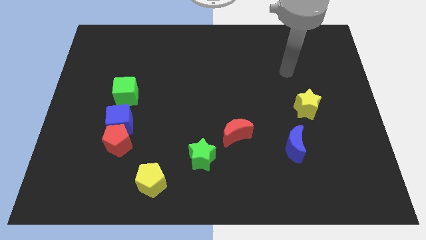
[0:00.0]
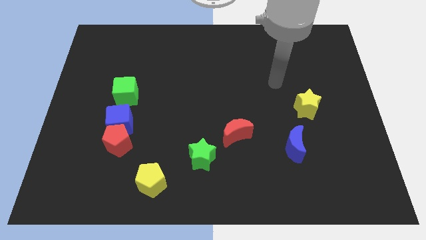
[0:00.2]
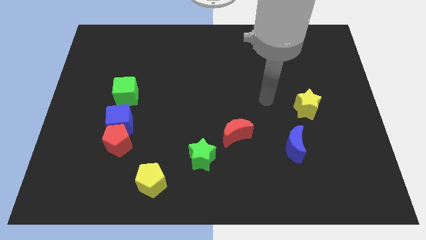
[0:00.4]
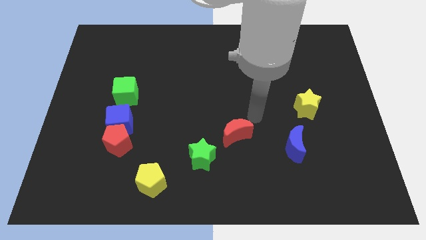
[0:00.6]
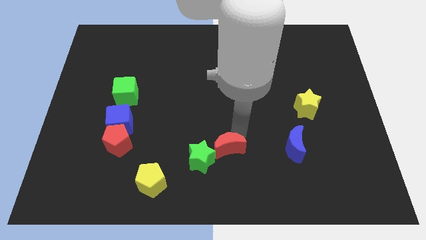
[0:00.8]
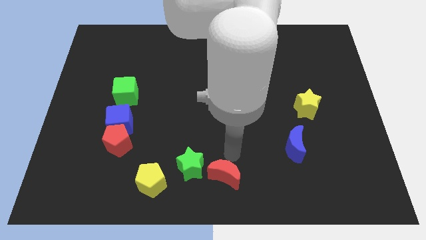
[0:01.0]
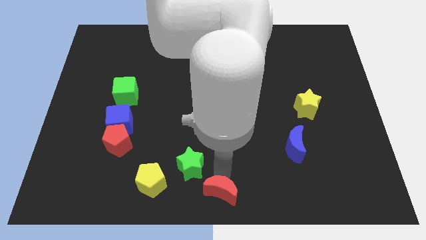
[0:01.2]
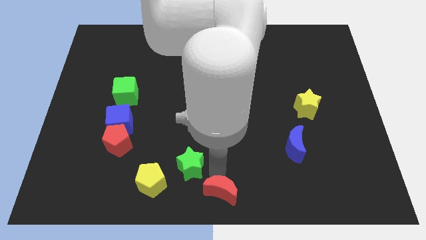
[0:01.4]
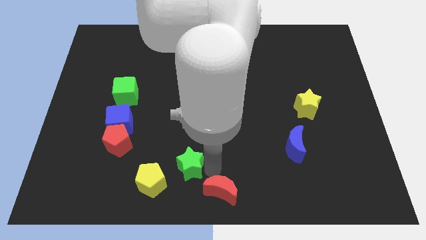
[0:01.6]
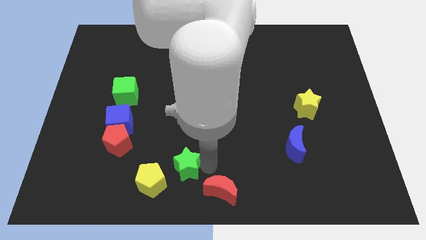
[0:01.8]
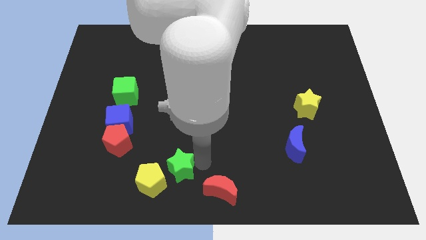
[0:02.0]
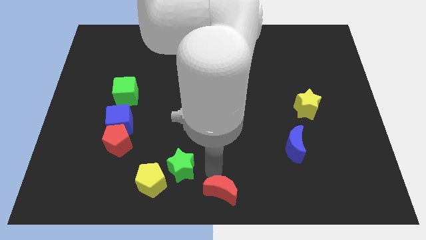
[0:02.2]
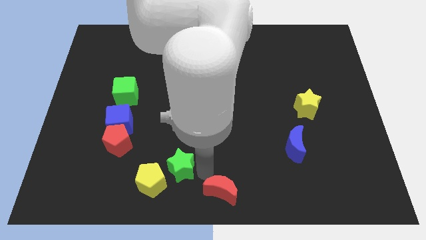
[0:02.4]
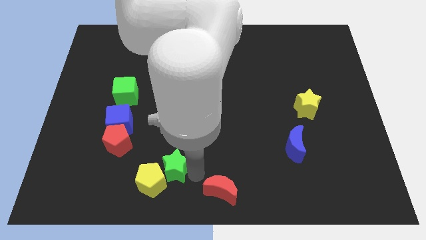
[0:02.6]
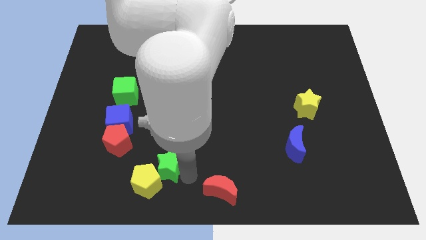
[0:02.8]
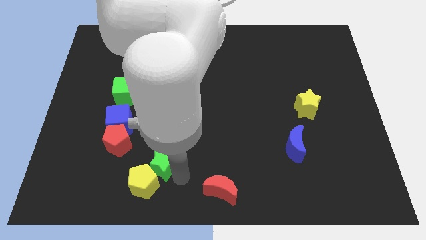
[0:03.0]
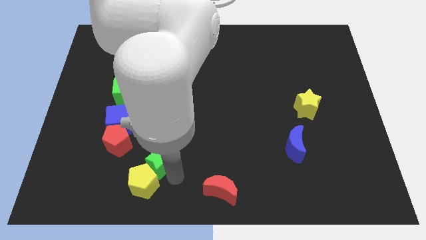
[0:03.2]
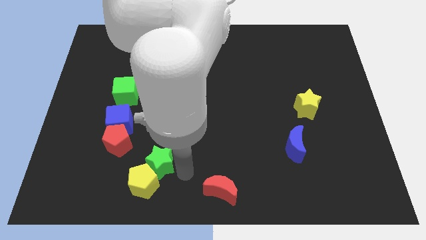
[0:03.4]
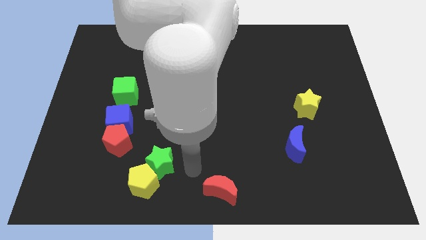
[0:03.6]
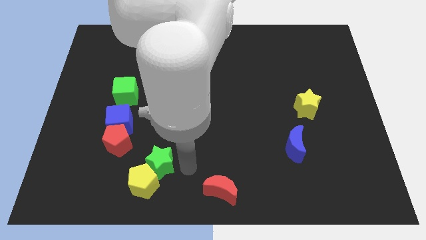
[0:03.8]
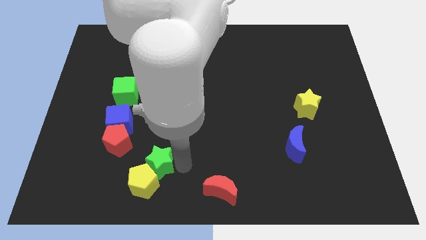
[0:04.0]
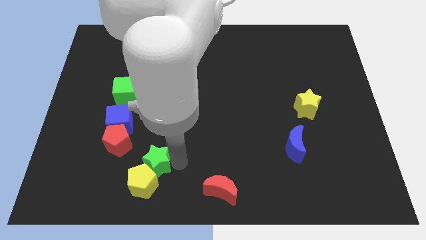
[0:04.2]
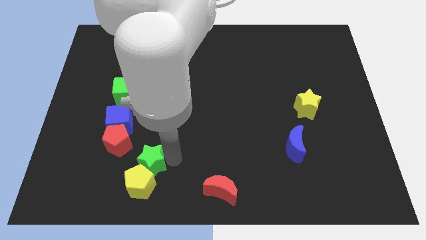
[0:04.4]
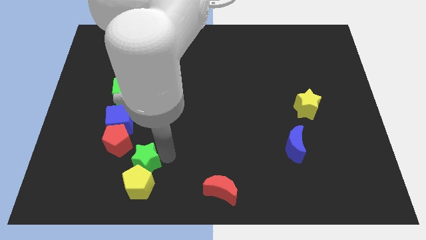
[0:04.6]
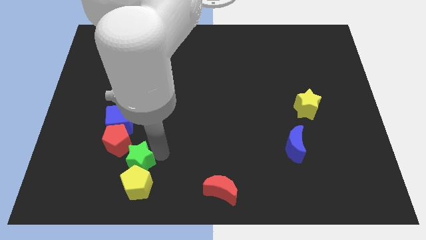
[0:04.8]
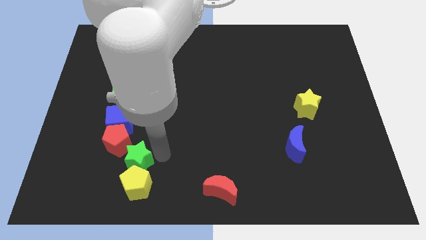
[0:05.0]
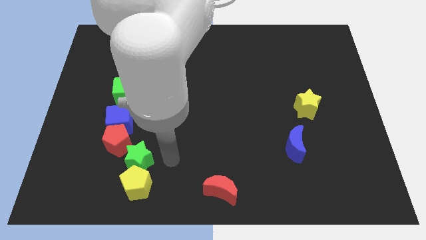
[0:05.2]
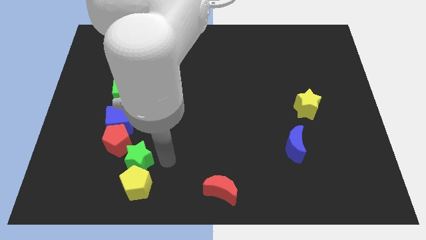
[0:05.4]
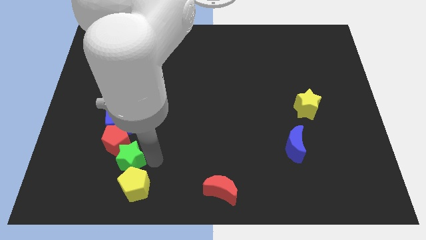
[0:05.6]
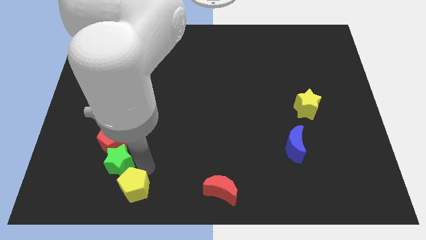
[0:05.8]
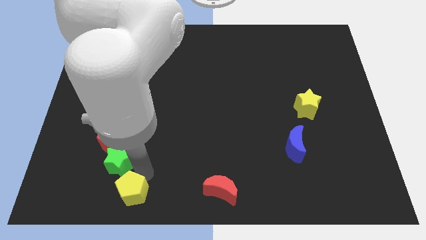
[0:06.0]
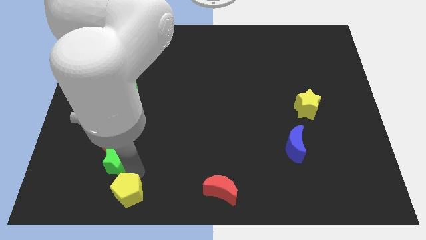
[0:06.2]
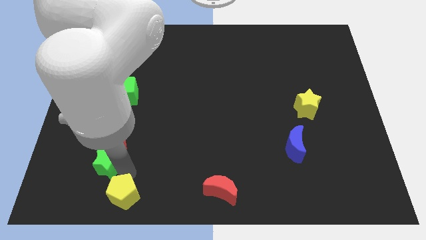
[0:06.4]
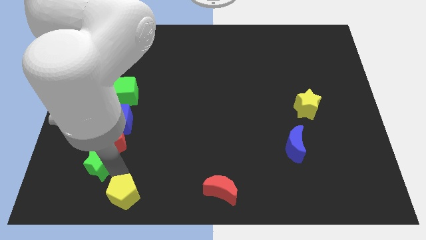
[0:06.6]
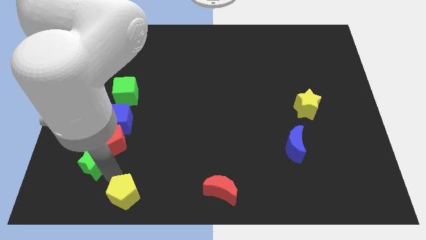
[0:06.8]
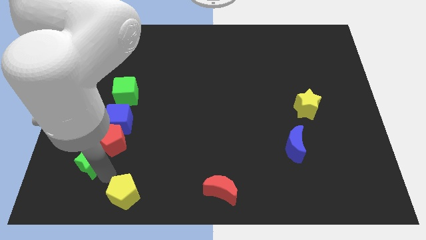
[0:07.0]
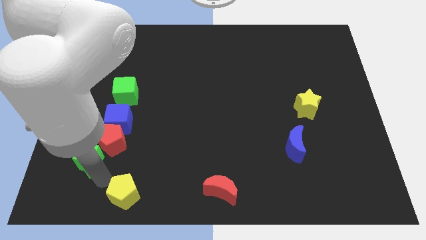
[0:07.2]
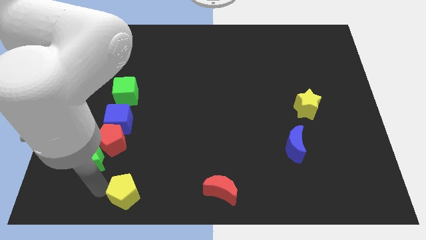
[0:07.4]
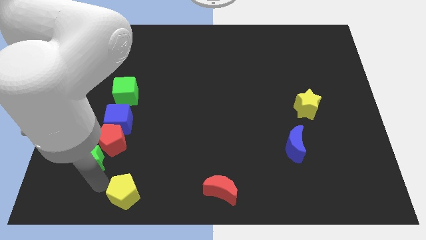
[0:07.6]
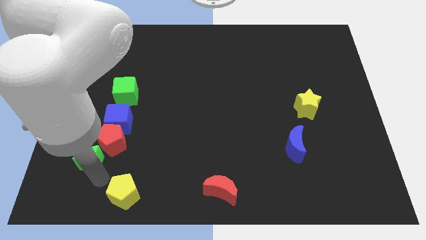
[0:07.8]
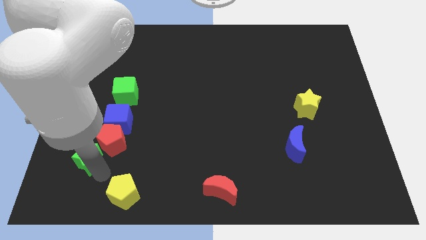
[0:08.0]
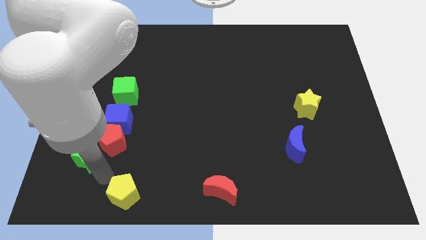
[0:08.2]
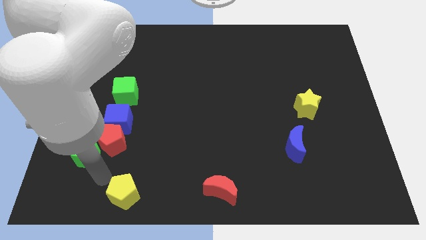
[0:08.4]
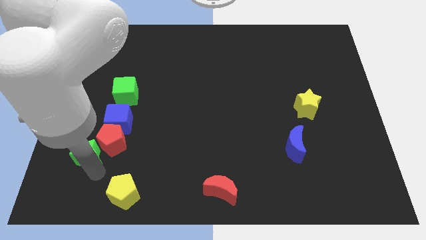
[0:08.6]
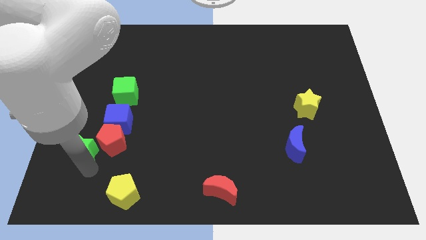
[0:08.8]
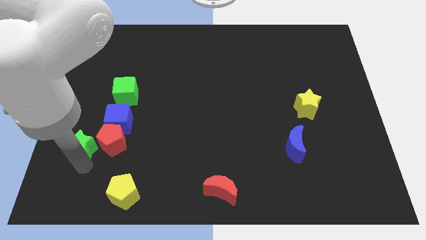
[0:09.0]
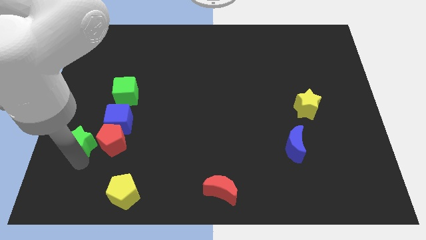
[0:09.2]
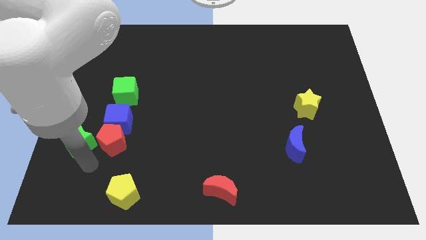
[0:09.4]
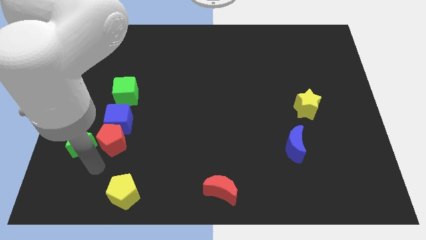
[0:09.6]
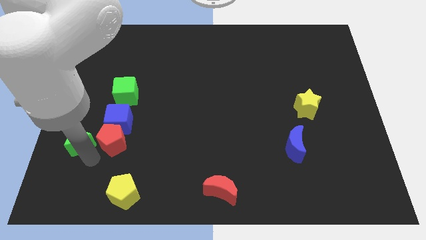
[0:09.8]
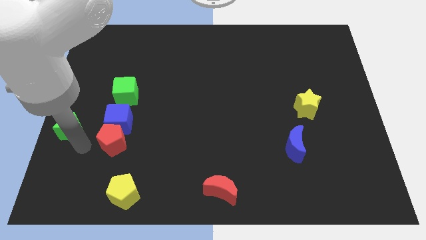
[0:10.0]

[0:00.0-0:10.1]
put the green star to the left side of the board

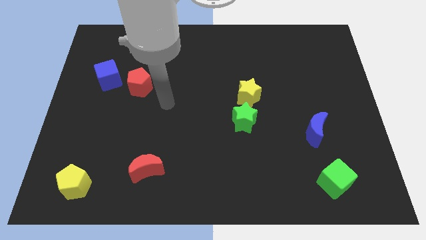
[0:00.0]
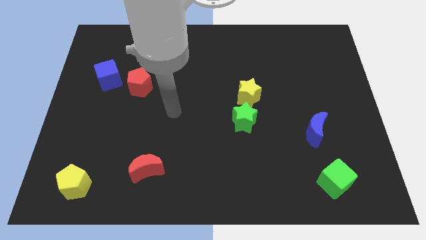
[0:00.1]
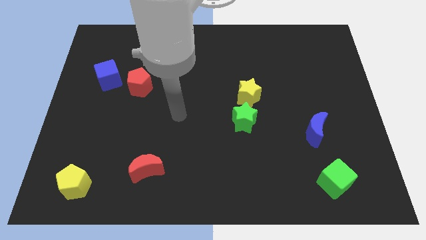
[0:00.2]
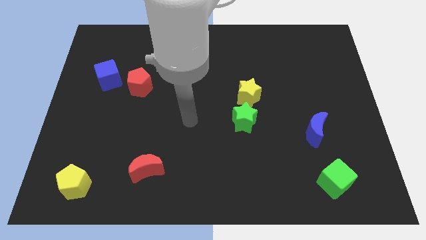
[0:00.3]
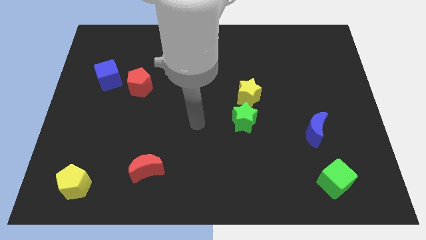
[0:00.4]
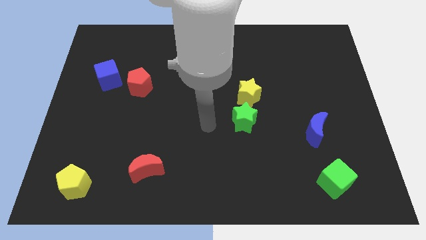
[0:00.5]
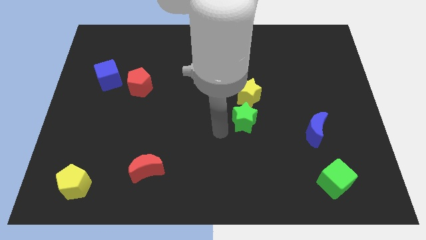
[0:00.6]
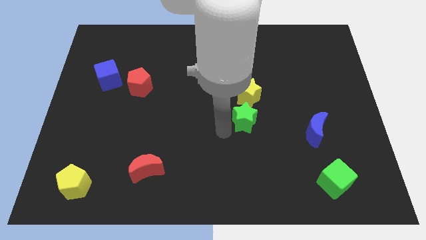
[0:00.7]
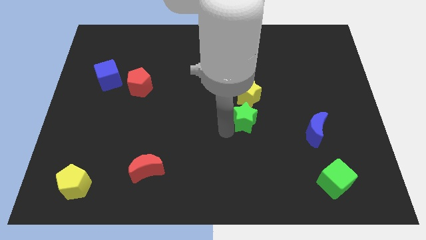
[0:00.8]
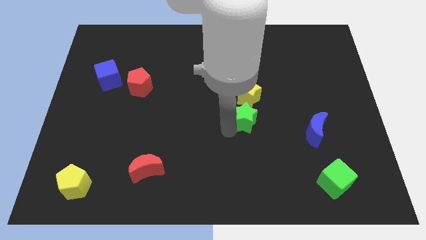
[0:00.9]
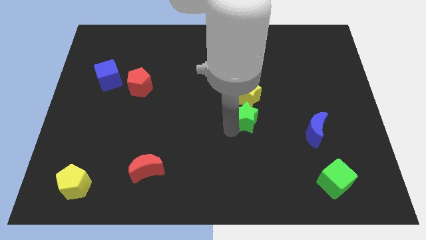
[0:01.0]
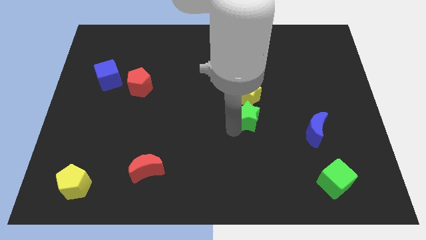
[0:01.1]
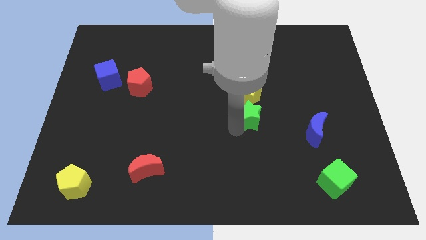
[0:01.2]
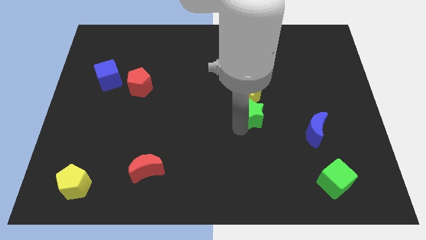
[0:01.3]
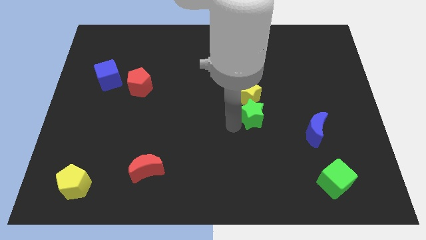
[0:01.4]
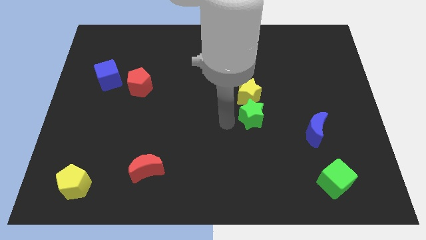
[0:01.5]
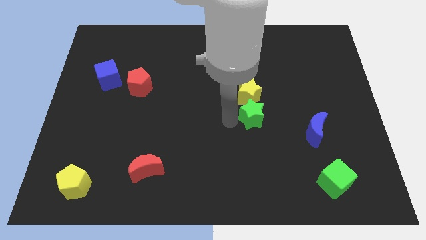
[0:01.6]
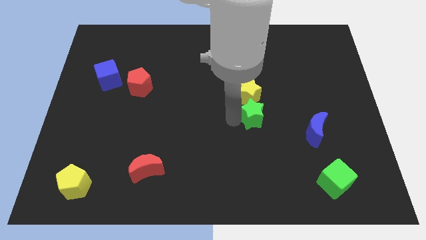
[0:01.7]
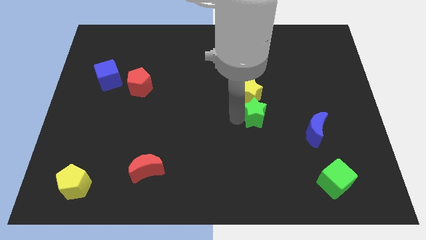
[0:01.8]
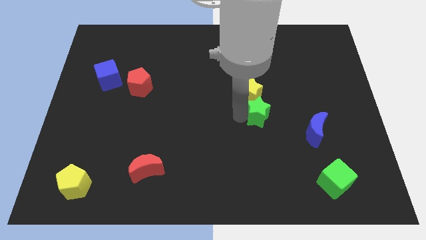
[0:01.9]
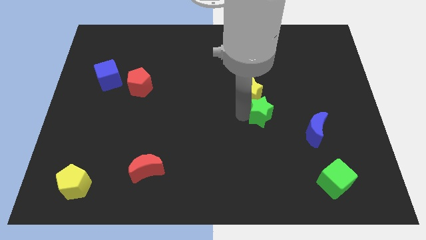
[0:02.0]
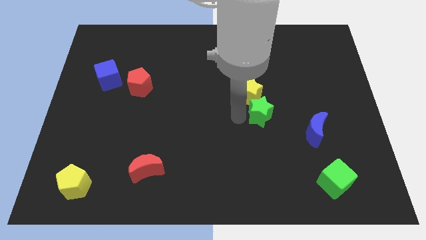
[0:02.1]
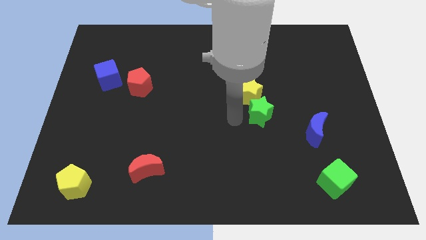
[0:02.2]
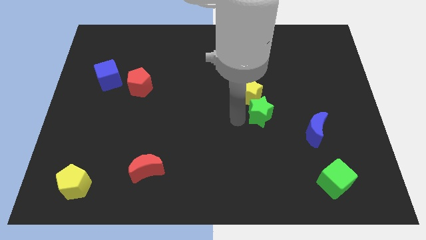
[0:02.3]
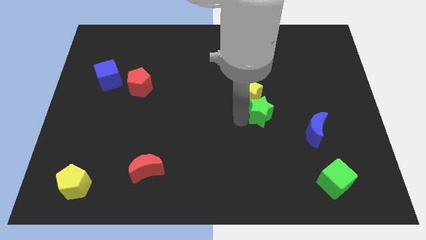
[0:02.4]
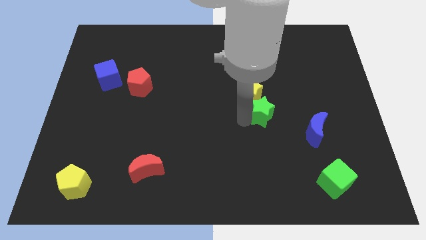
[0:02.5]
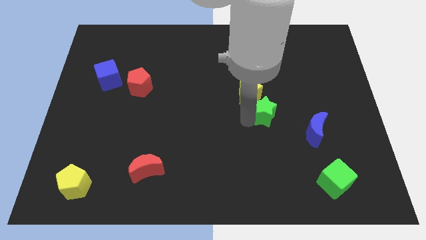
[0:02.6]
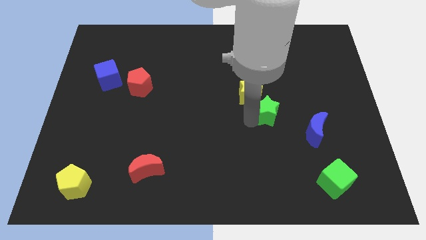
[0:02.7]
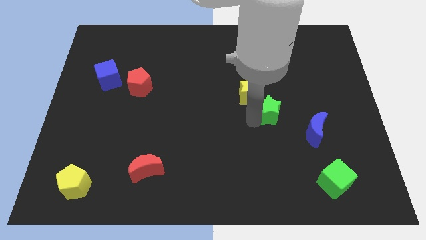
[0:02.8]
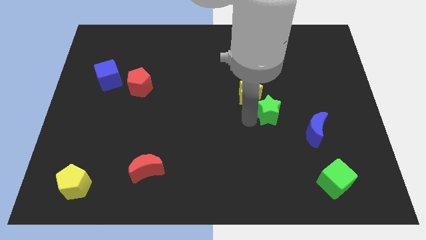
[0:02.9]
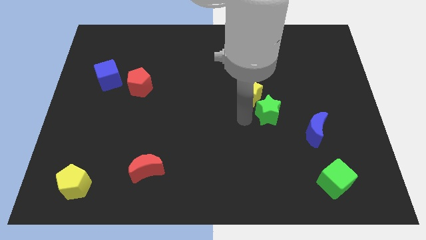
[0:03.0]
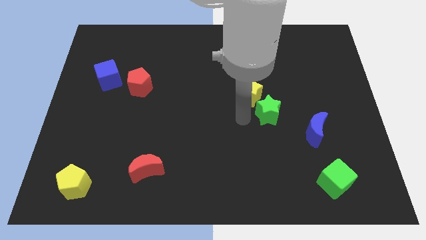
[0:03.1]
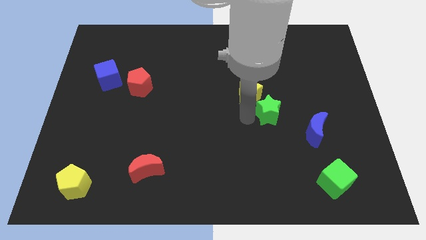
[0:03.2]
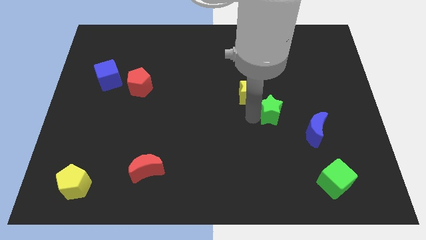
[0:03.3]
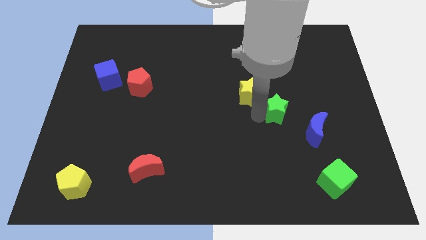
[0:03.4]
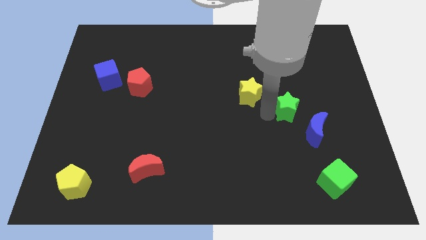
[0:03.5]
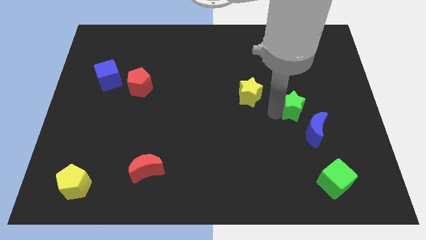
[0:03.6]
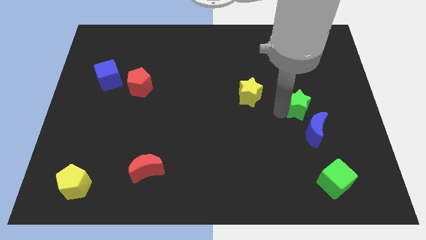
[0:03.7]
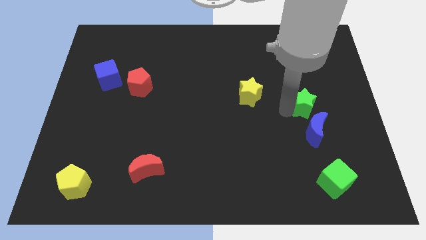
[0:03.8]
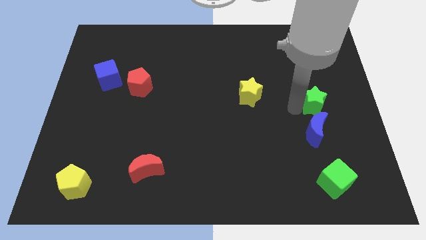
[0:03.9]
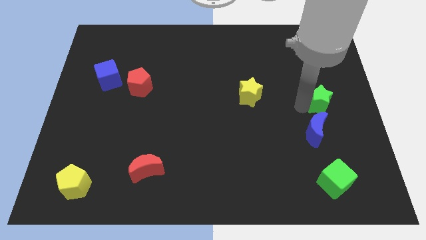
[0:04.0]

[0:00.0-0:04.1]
move the green star to the center right
